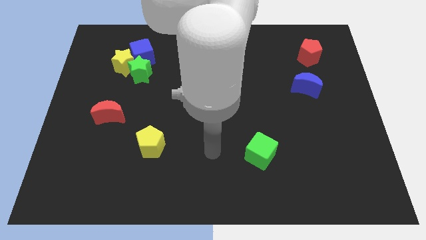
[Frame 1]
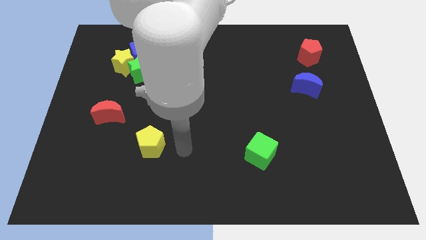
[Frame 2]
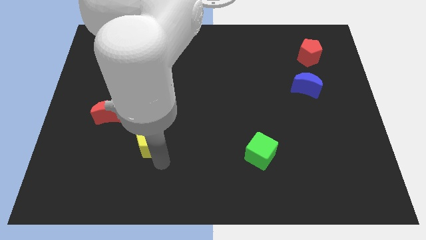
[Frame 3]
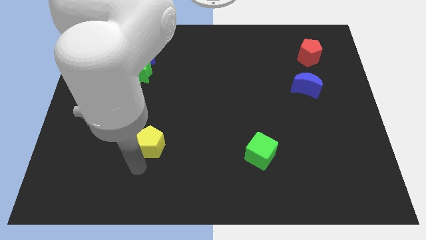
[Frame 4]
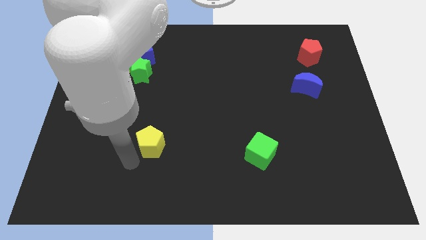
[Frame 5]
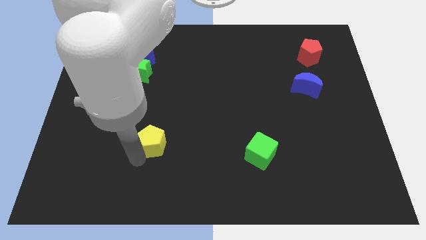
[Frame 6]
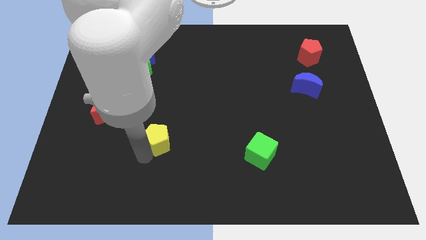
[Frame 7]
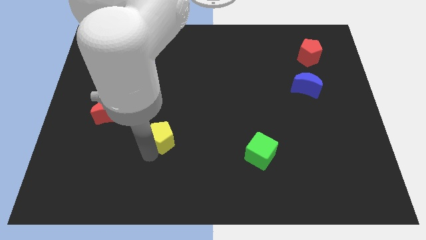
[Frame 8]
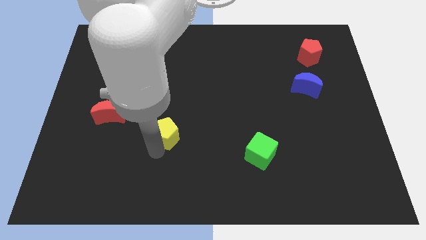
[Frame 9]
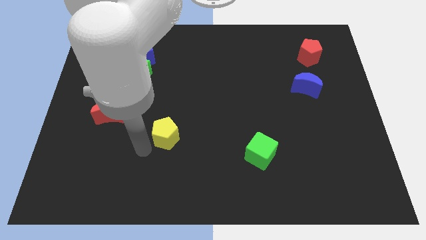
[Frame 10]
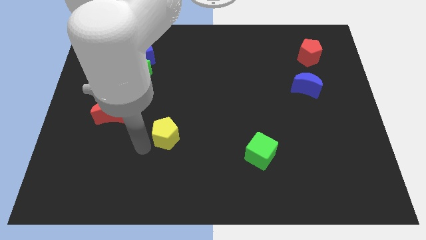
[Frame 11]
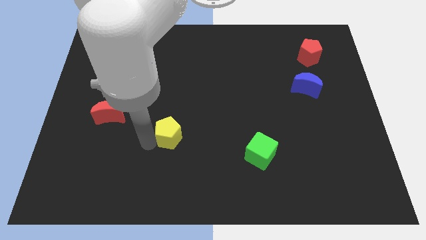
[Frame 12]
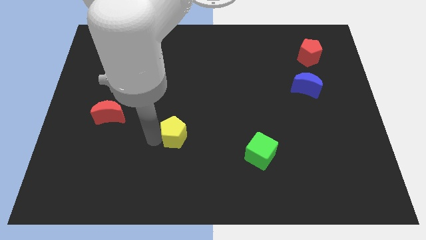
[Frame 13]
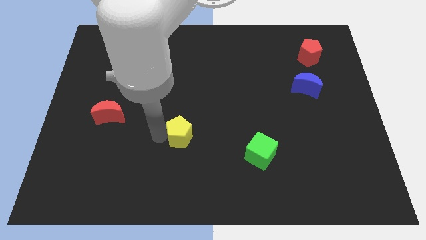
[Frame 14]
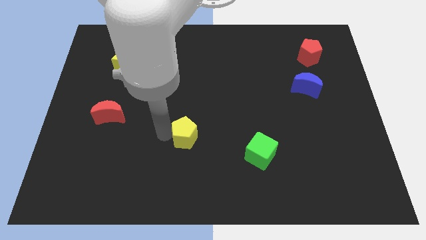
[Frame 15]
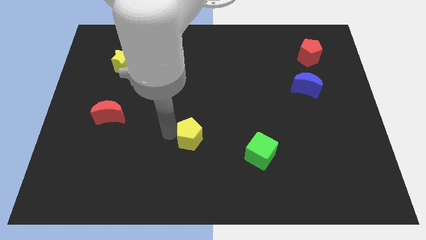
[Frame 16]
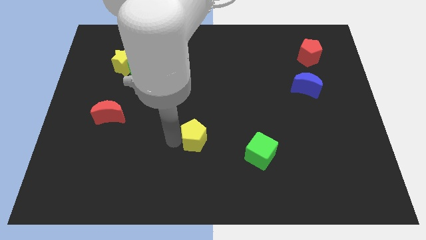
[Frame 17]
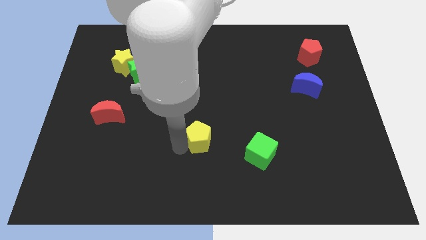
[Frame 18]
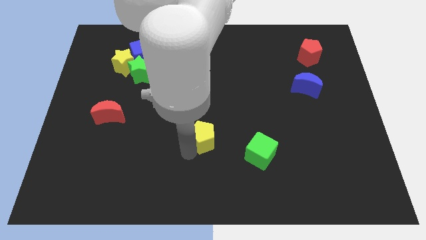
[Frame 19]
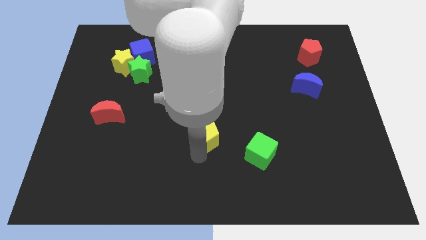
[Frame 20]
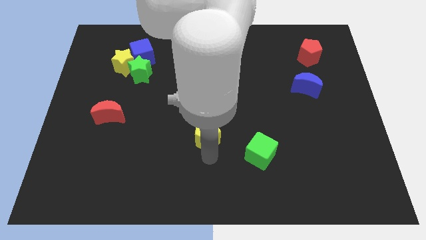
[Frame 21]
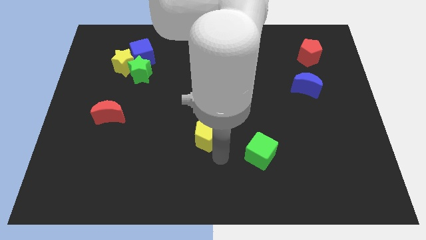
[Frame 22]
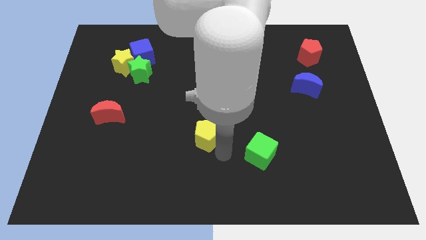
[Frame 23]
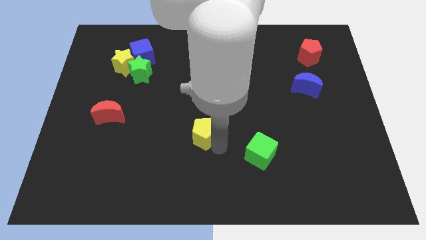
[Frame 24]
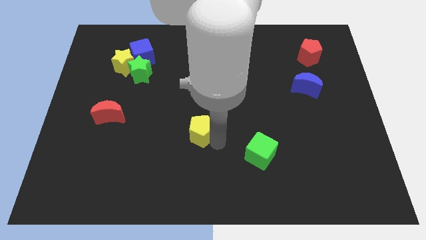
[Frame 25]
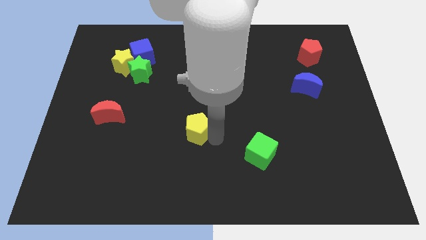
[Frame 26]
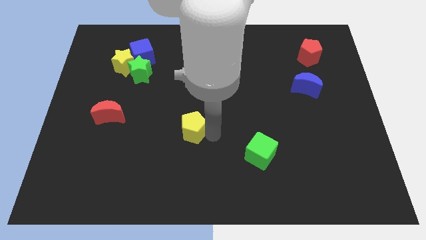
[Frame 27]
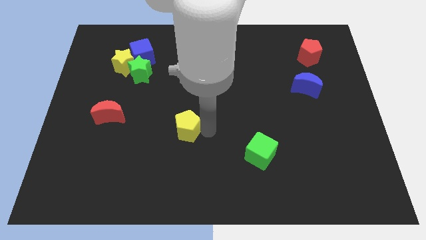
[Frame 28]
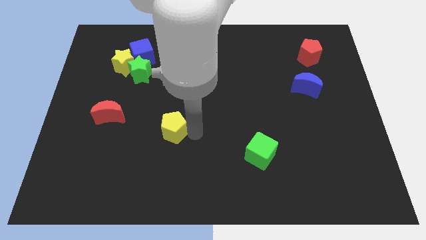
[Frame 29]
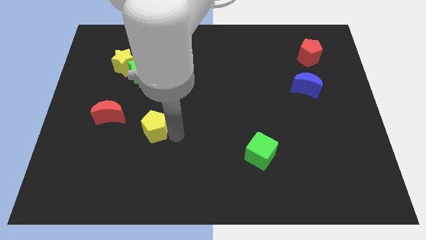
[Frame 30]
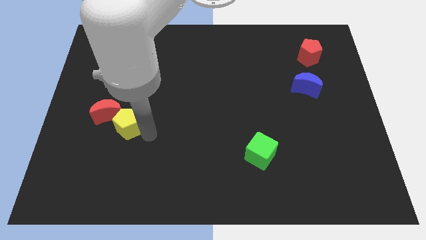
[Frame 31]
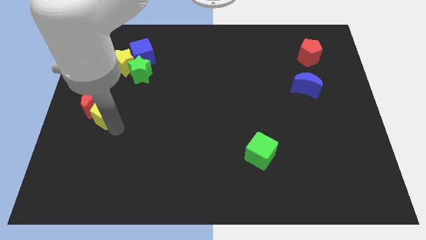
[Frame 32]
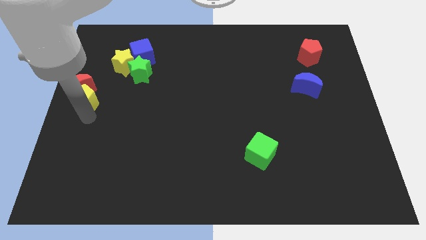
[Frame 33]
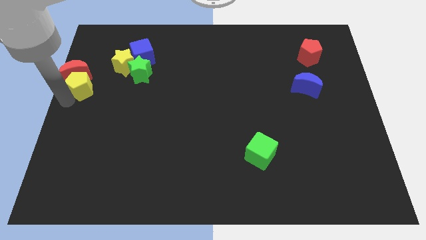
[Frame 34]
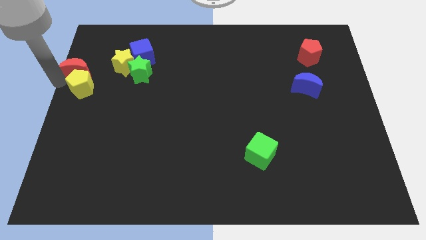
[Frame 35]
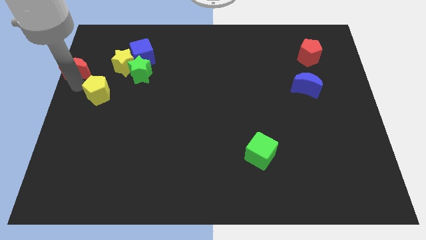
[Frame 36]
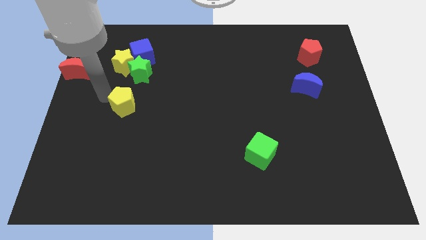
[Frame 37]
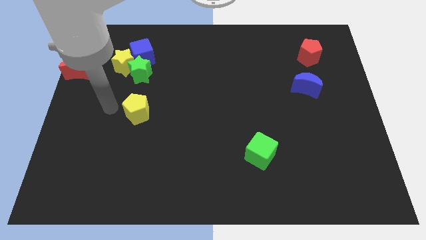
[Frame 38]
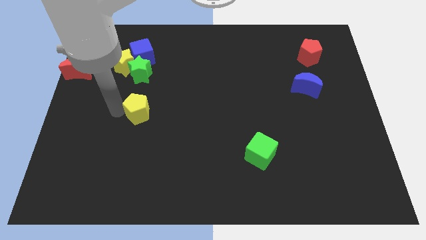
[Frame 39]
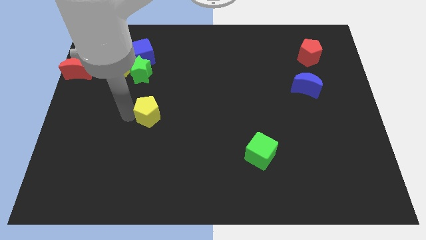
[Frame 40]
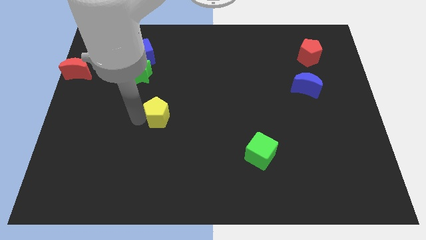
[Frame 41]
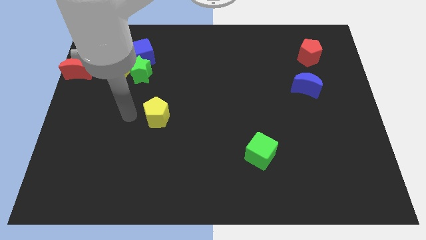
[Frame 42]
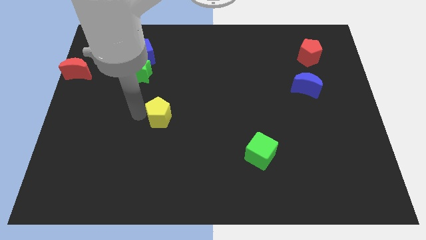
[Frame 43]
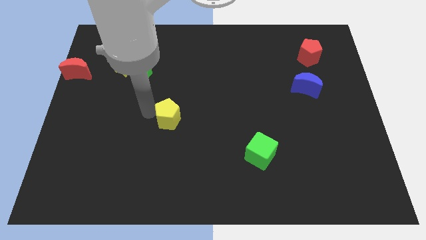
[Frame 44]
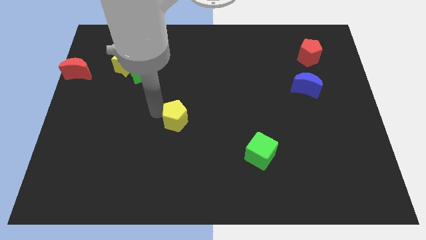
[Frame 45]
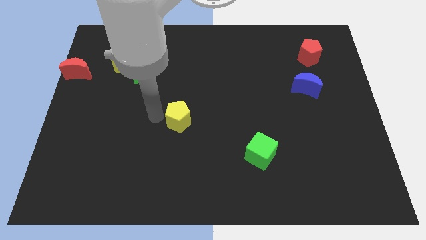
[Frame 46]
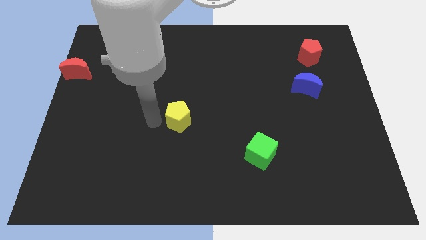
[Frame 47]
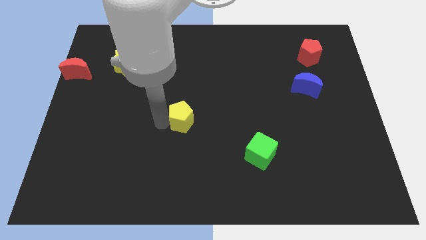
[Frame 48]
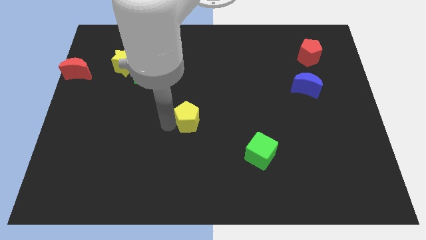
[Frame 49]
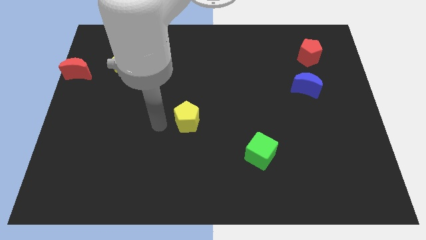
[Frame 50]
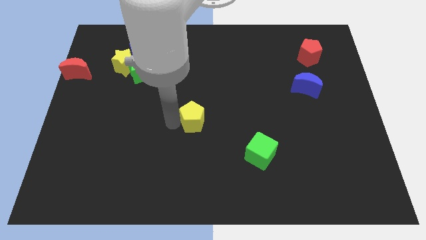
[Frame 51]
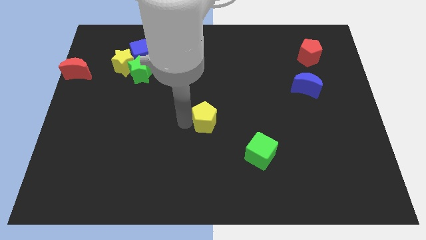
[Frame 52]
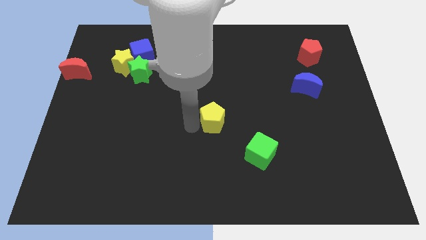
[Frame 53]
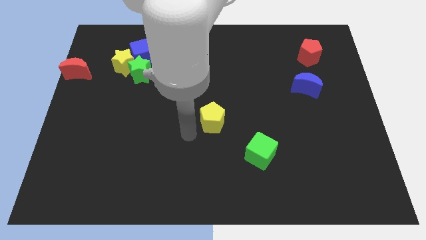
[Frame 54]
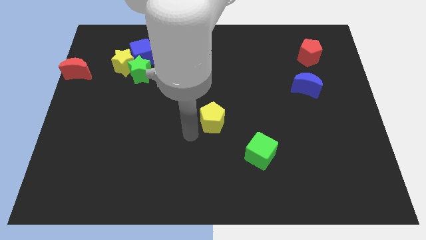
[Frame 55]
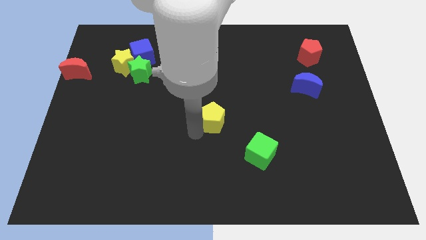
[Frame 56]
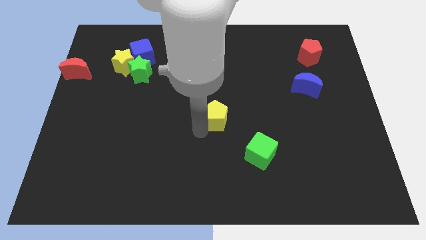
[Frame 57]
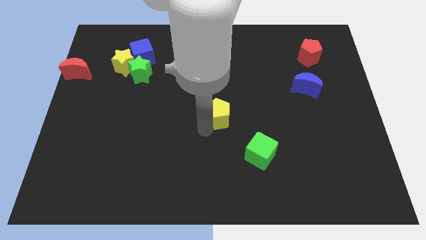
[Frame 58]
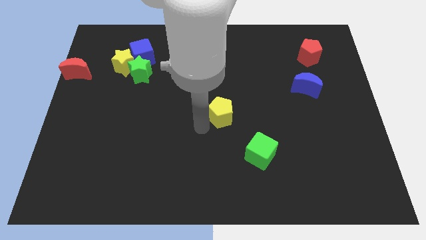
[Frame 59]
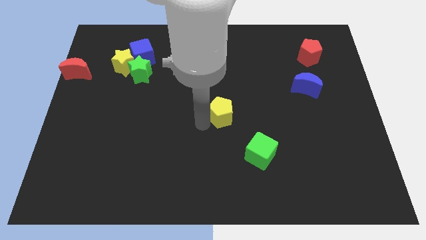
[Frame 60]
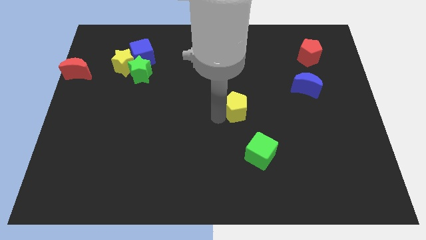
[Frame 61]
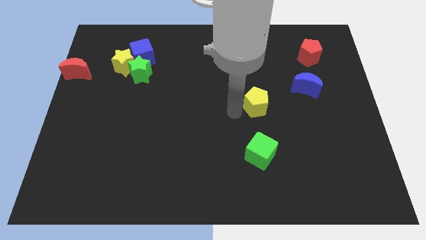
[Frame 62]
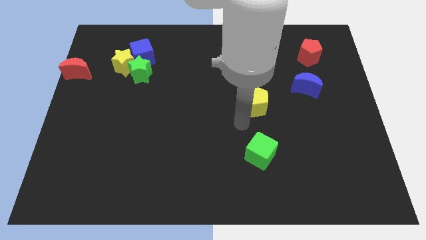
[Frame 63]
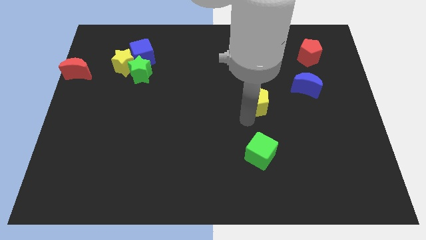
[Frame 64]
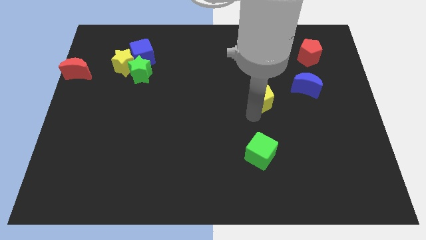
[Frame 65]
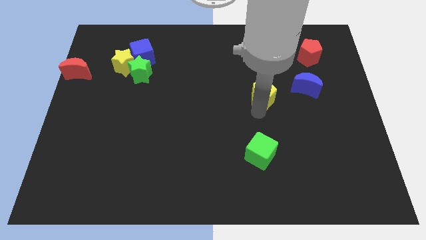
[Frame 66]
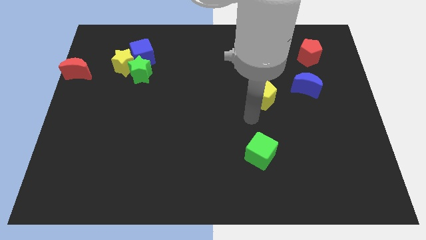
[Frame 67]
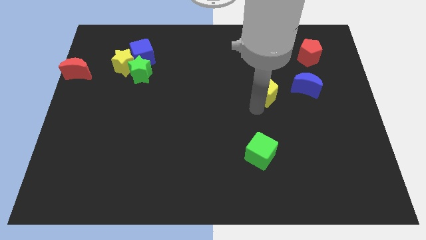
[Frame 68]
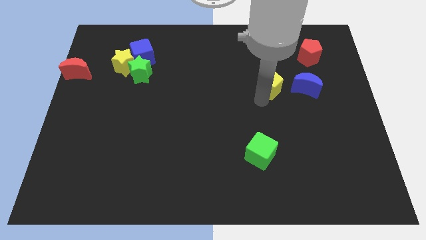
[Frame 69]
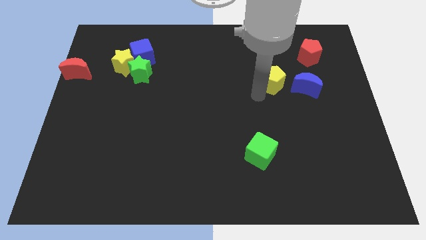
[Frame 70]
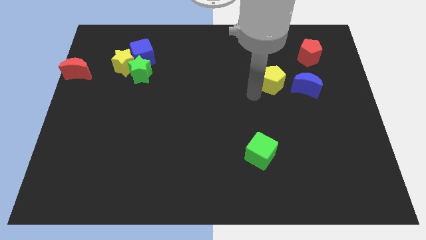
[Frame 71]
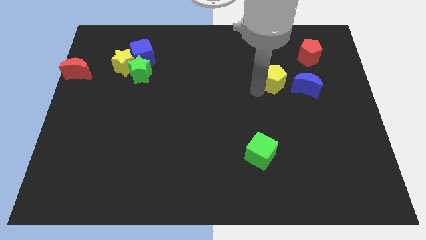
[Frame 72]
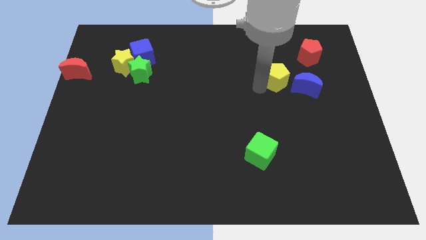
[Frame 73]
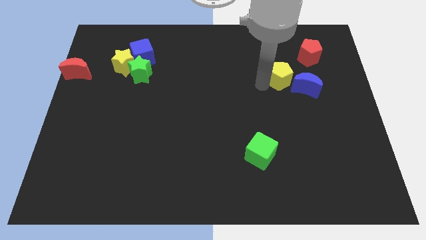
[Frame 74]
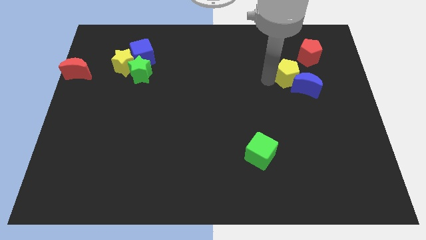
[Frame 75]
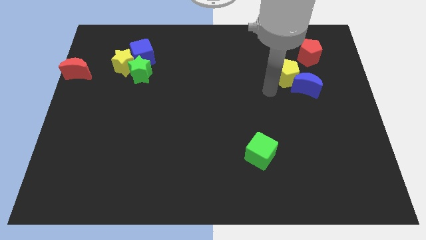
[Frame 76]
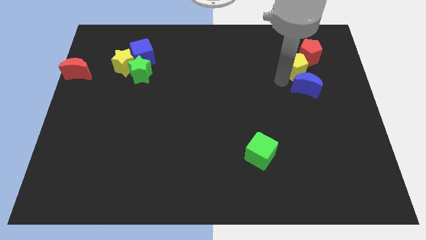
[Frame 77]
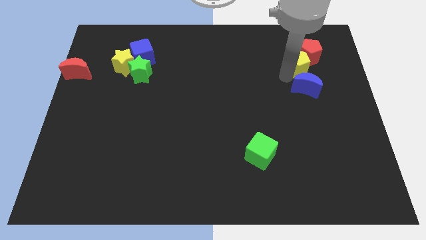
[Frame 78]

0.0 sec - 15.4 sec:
slide the yellow pentagon close to the red pentagon
